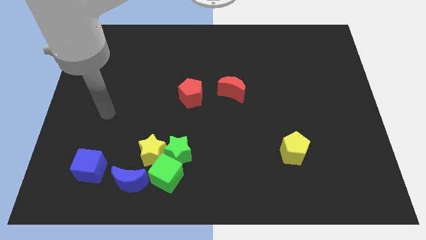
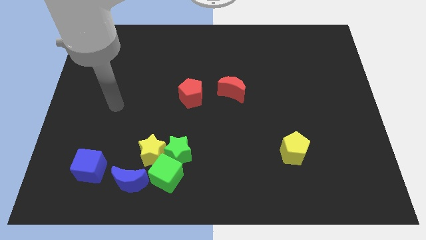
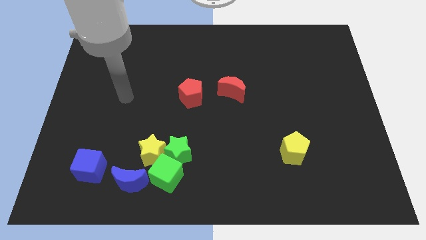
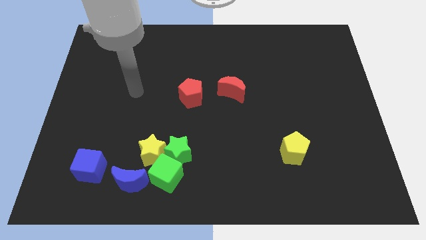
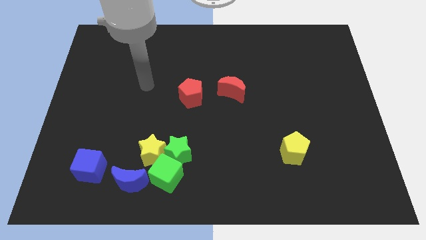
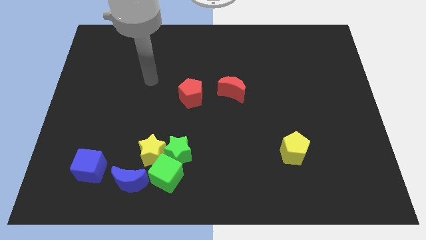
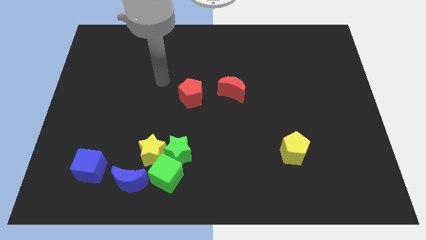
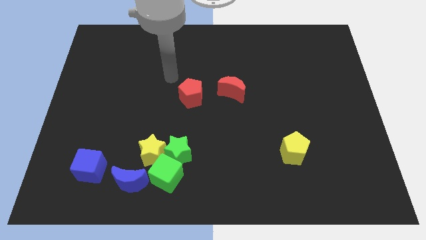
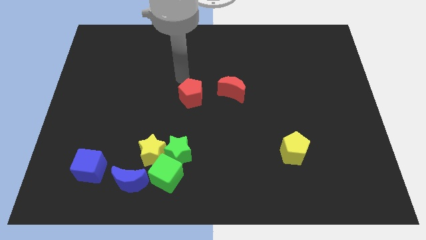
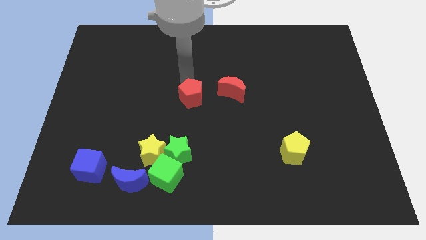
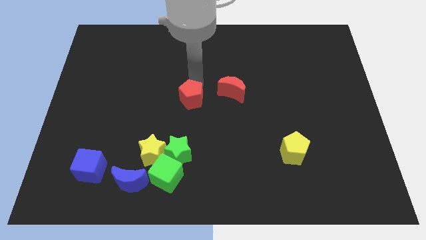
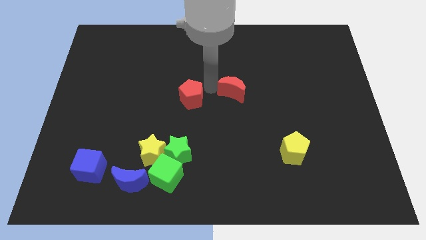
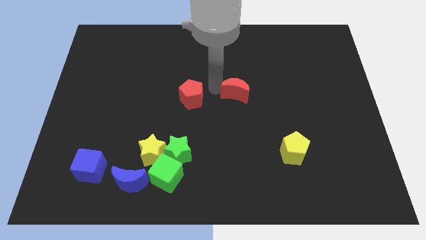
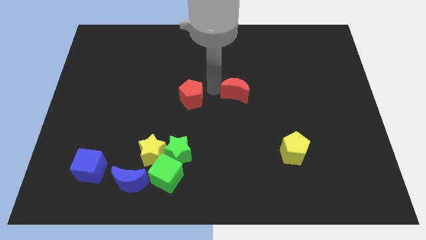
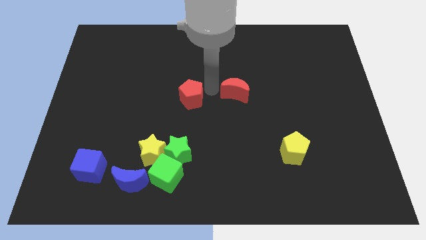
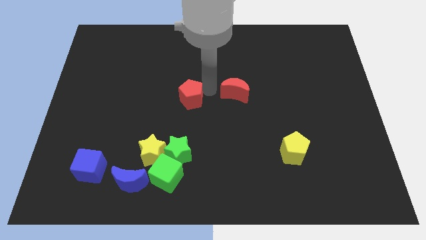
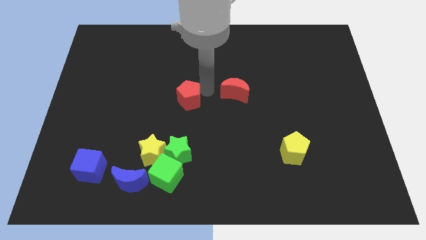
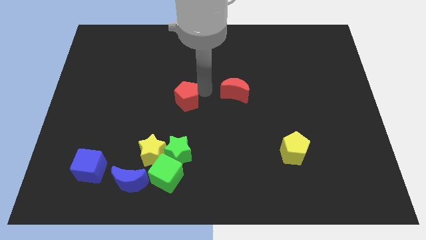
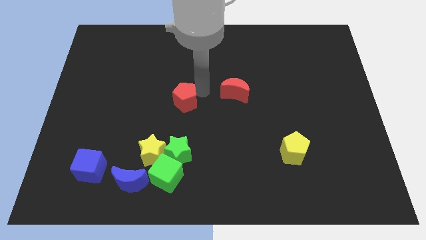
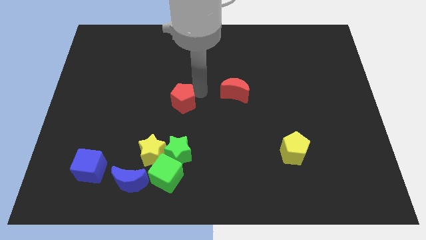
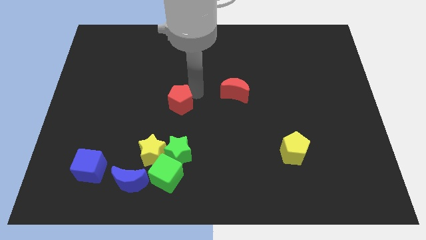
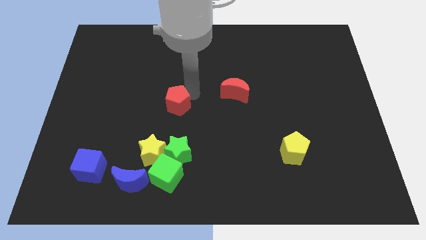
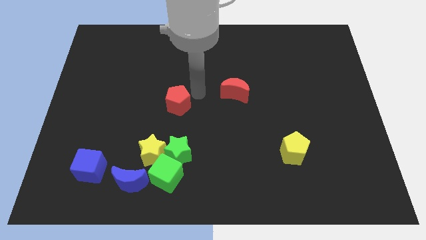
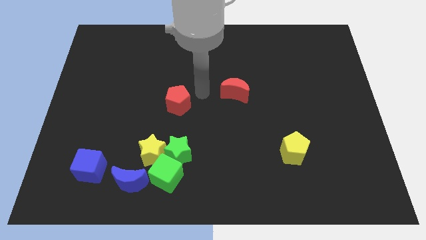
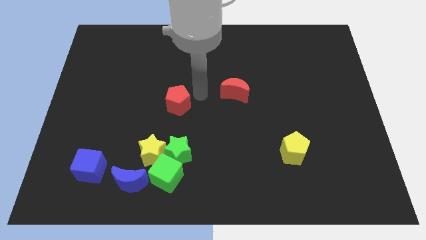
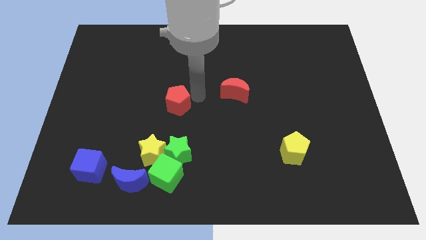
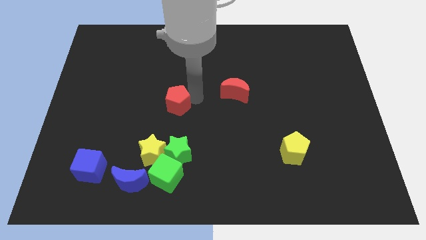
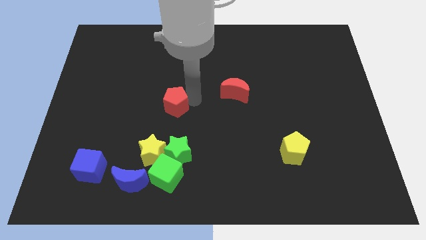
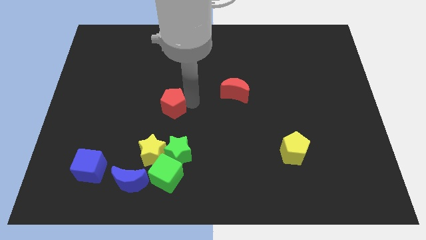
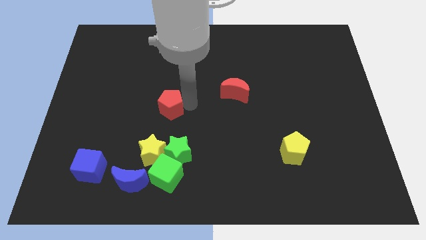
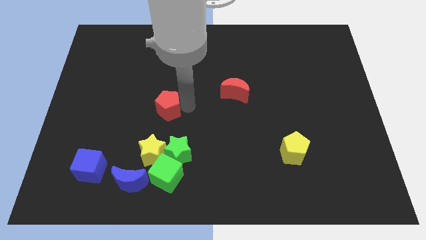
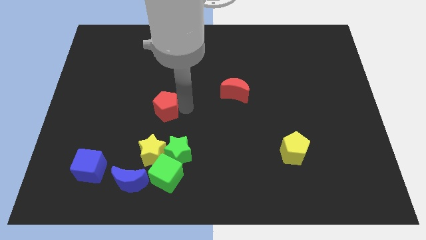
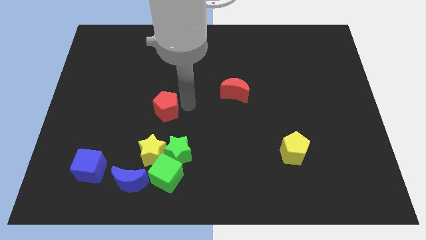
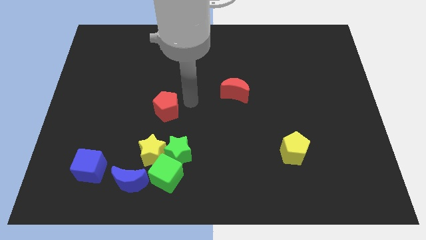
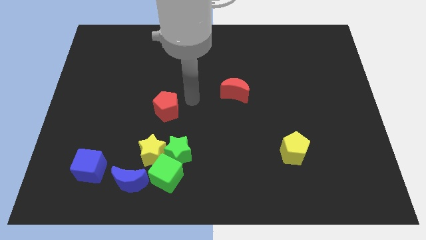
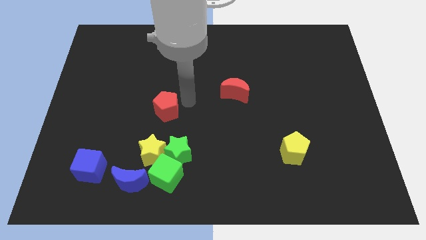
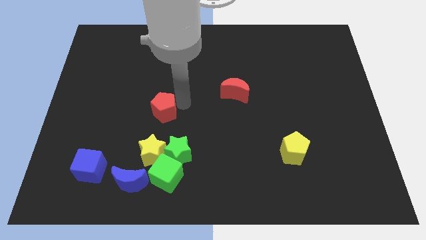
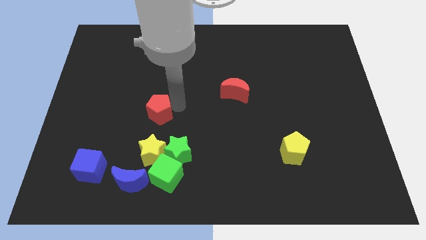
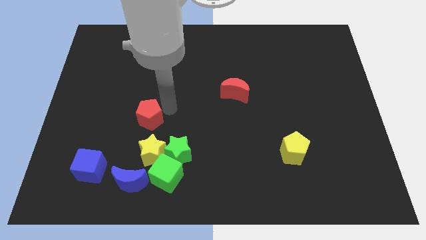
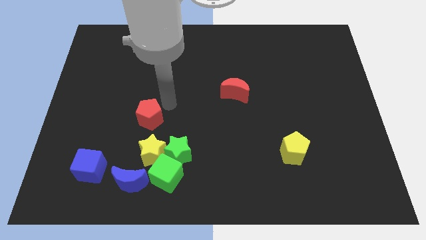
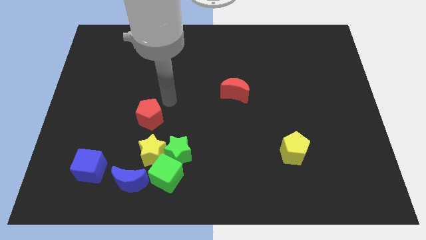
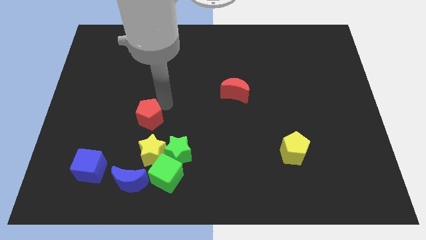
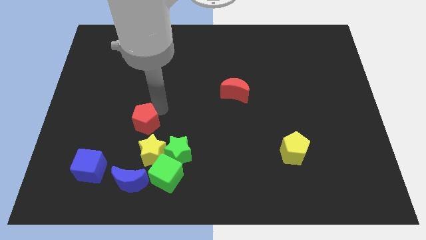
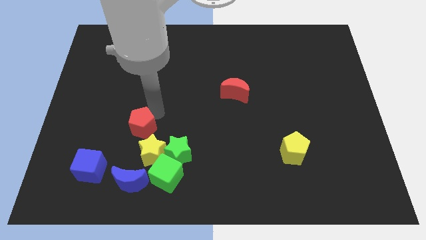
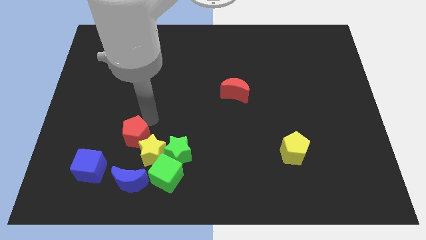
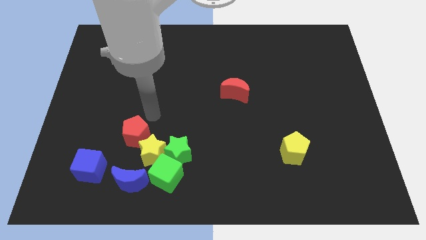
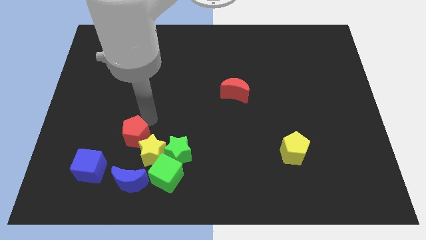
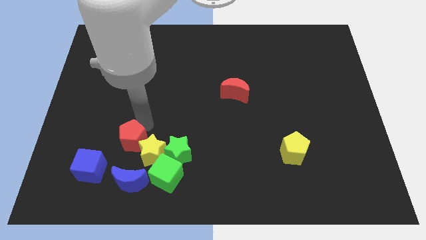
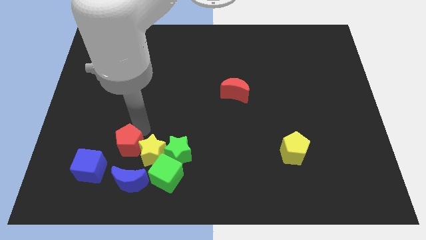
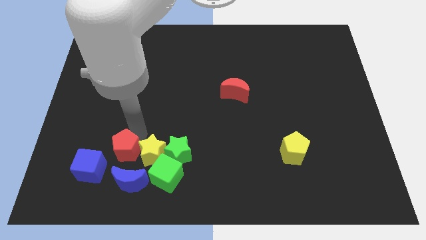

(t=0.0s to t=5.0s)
push the red pentagon downwards and then left

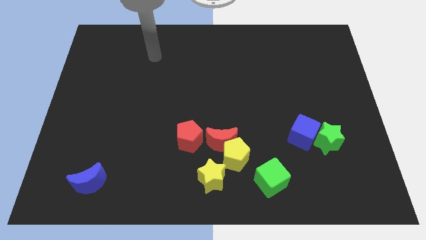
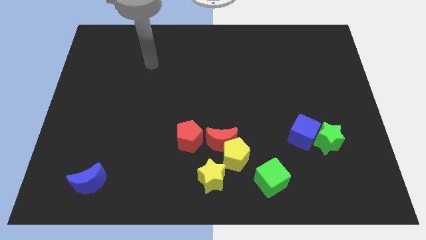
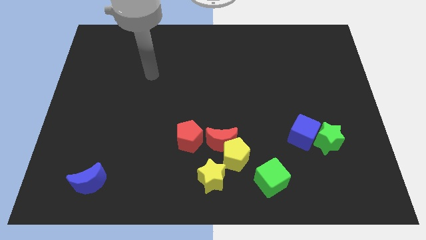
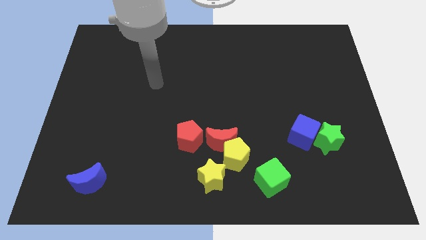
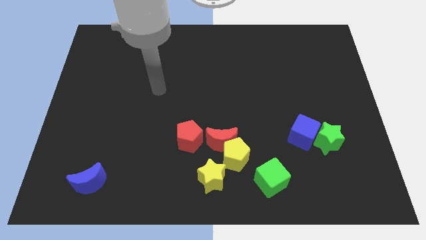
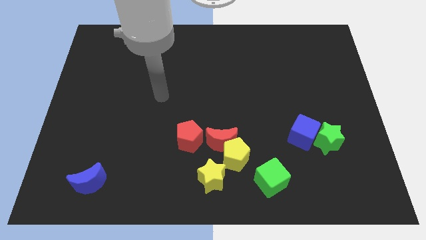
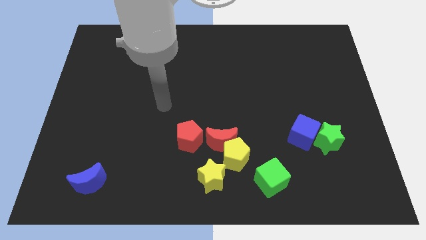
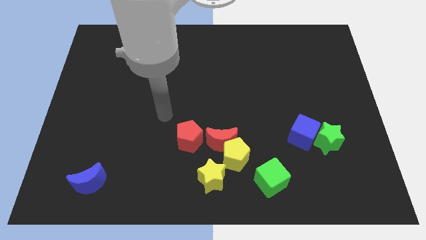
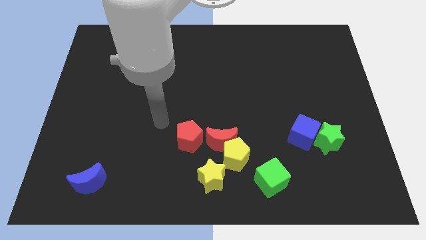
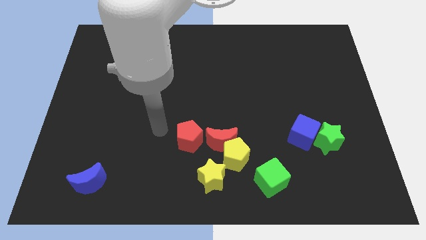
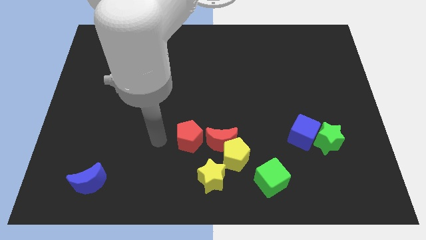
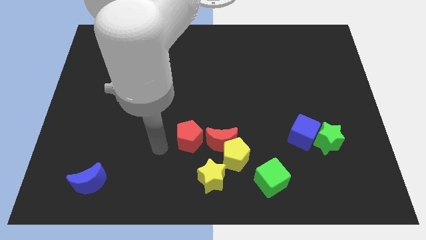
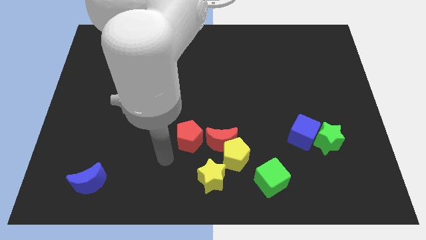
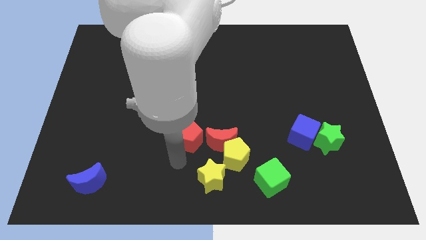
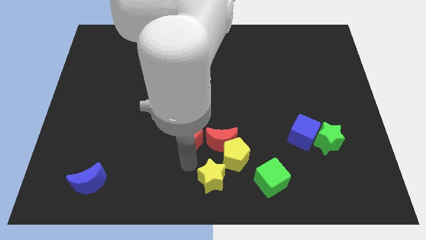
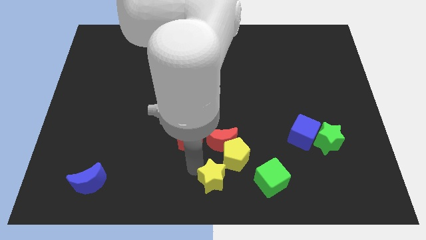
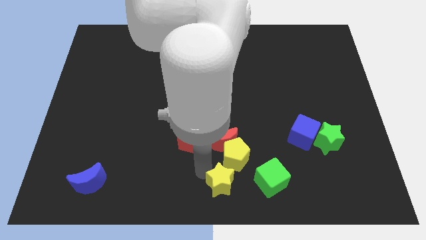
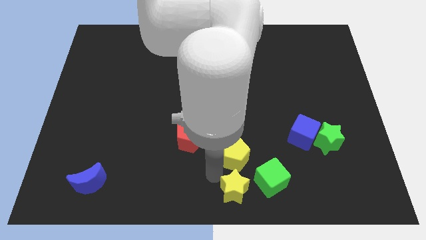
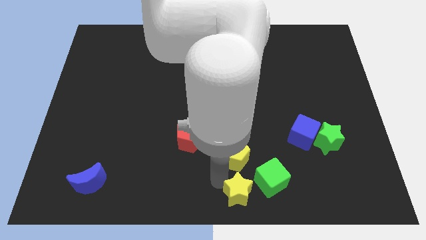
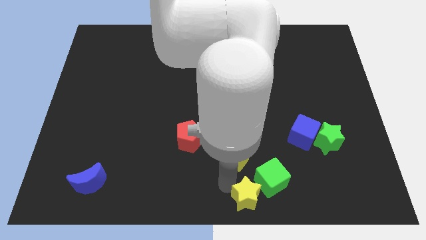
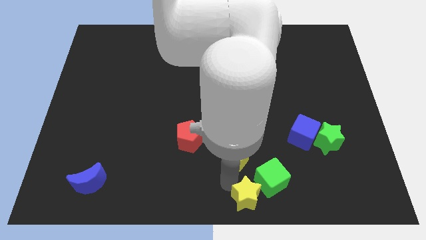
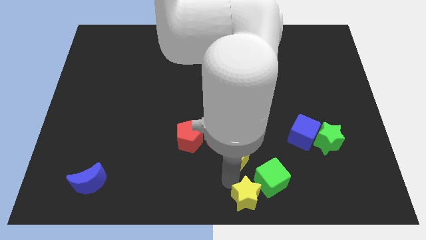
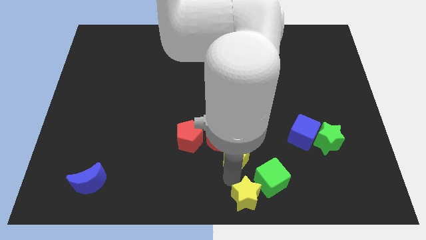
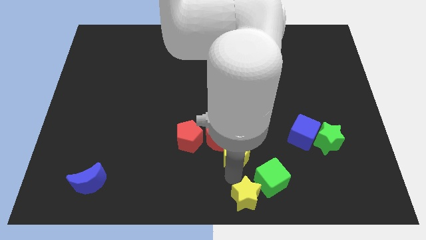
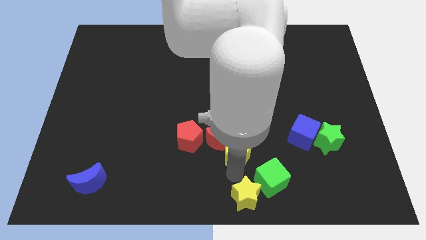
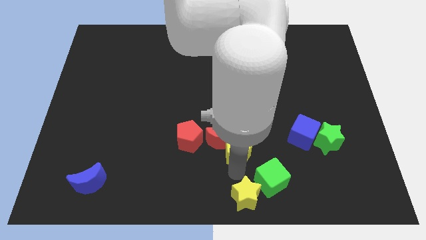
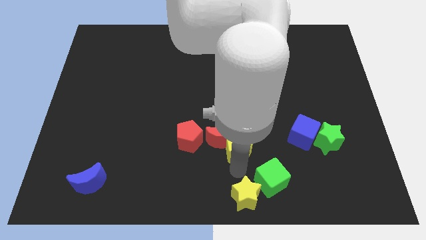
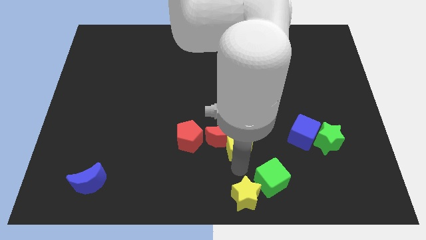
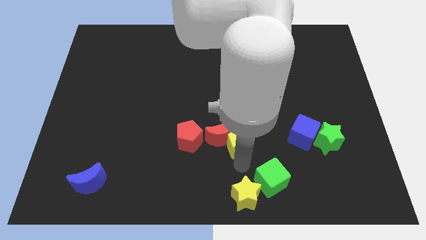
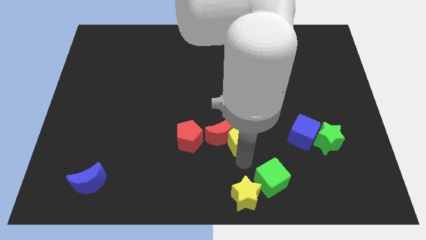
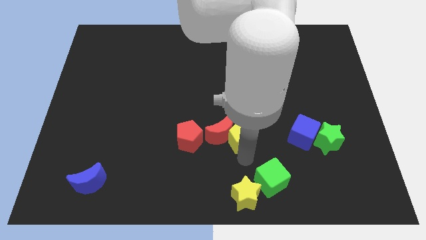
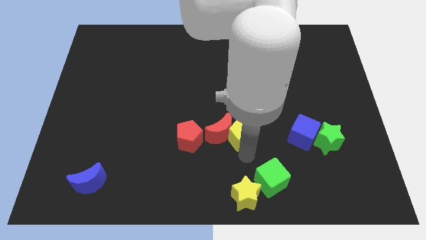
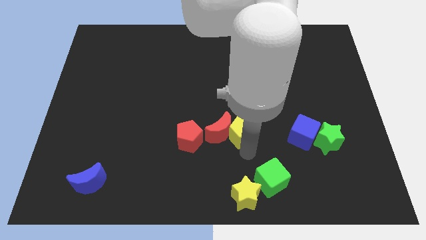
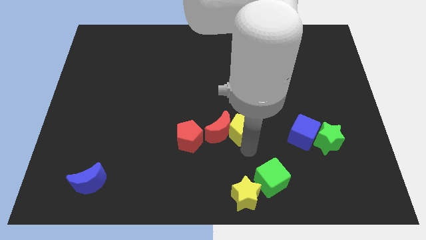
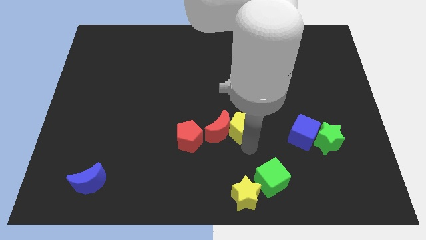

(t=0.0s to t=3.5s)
slide the yellow pentagon up a little bit
